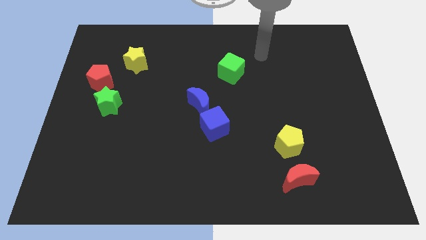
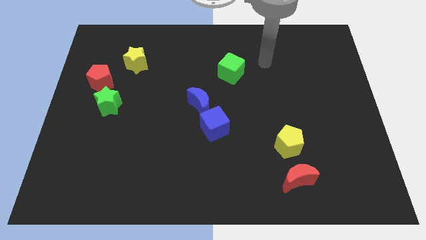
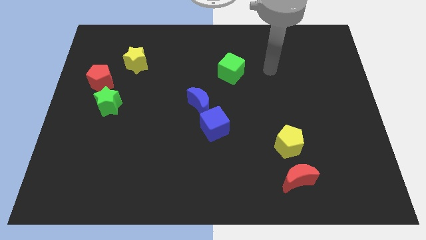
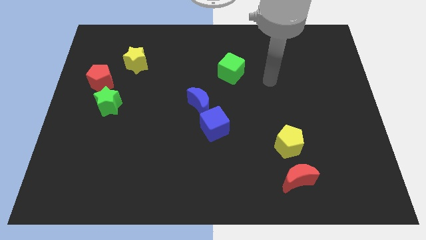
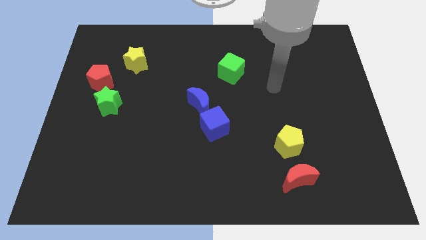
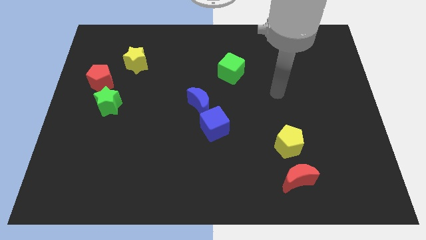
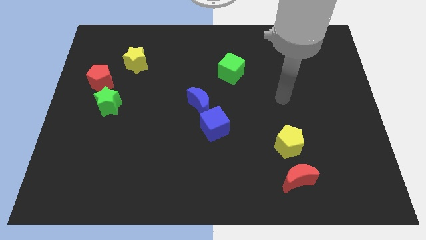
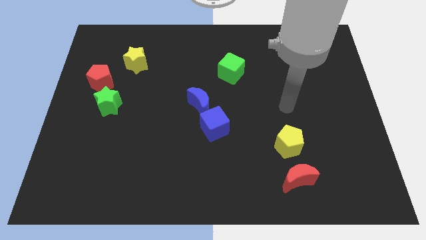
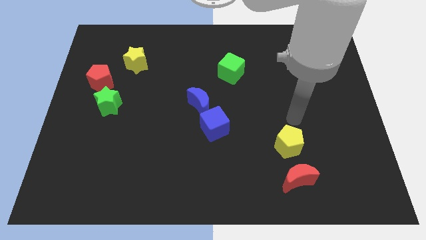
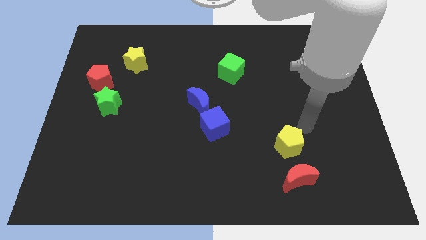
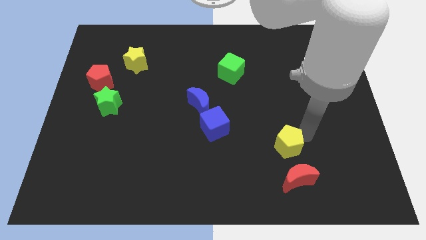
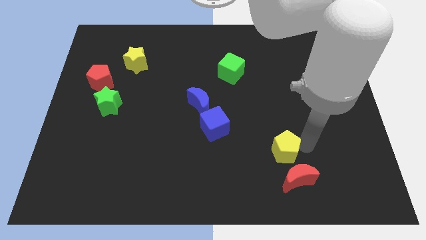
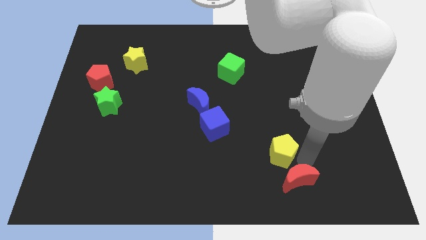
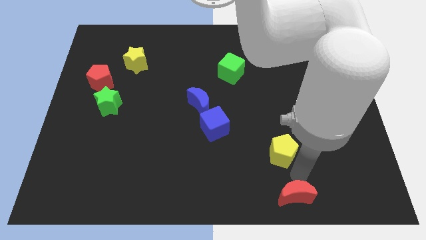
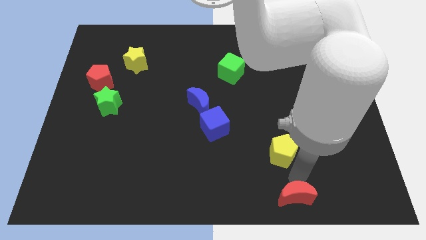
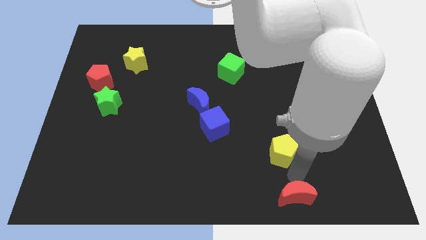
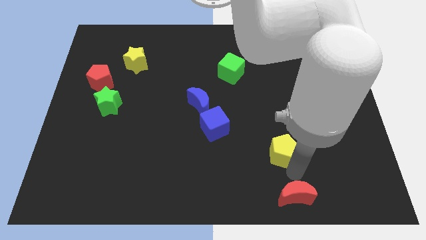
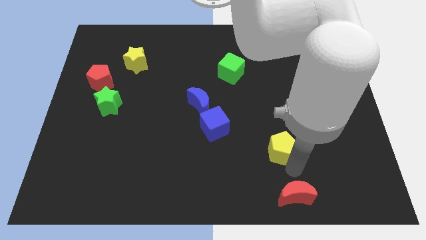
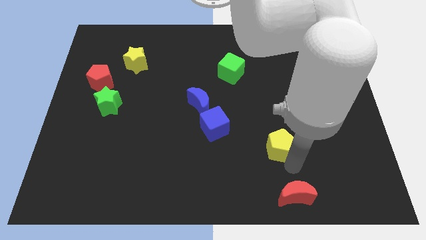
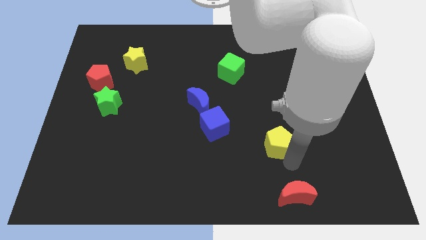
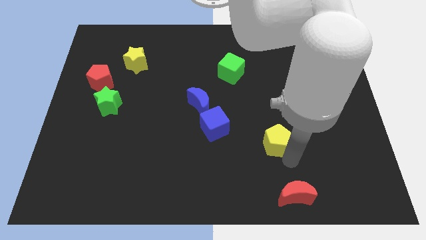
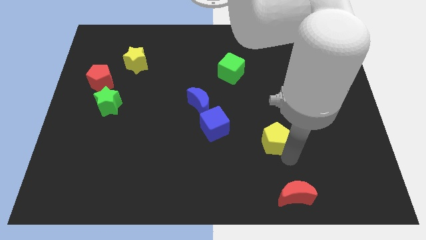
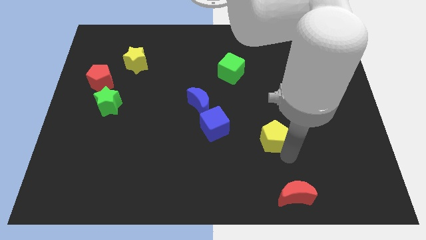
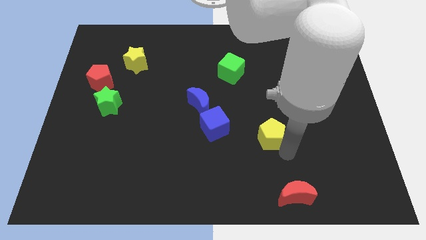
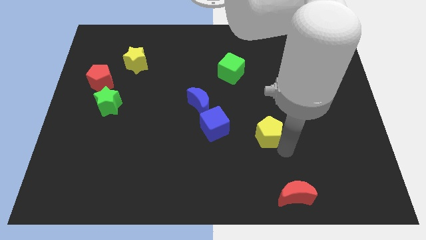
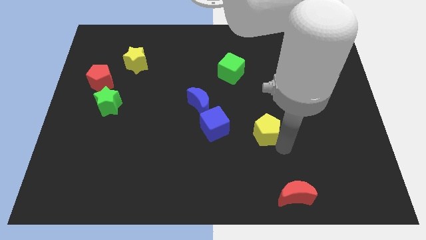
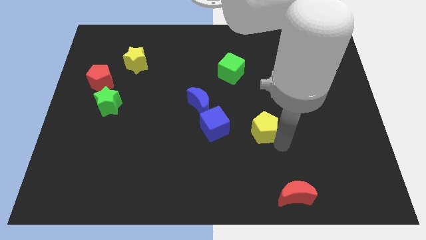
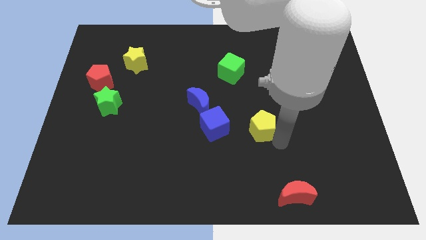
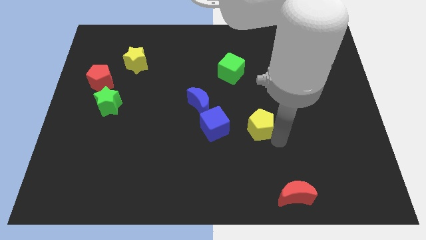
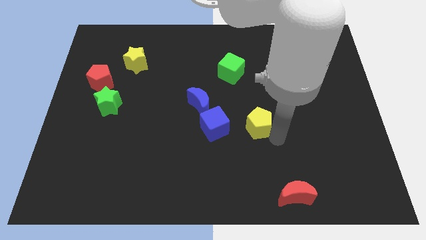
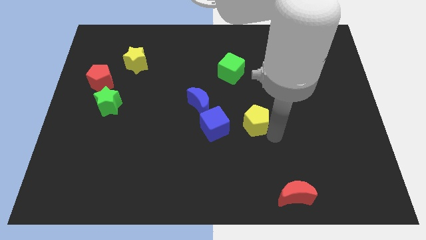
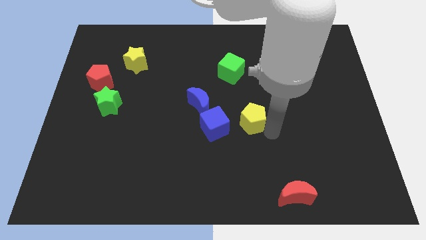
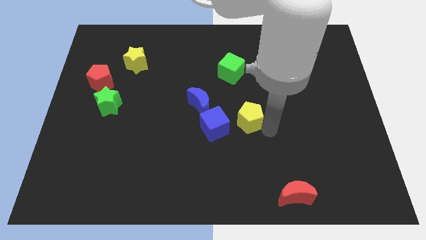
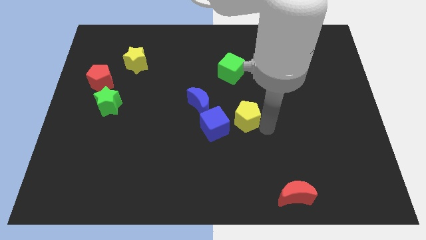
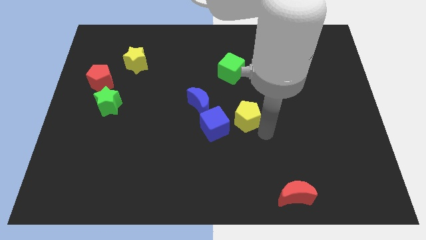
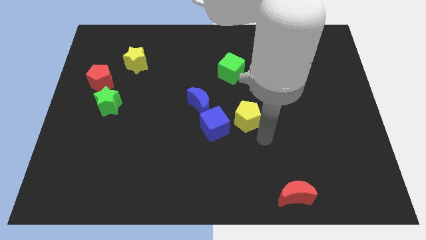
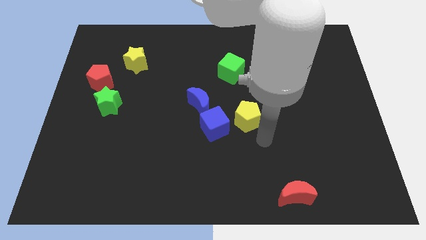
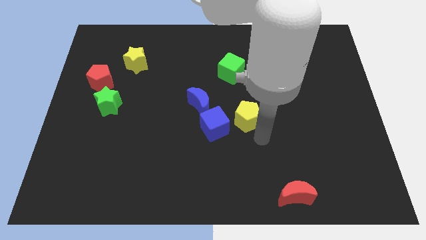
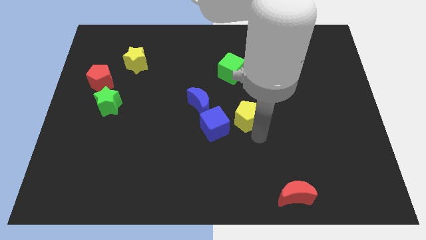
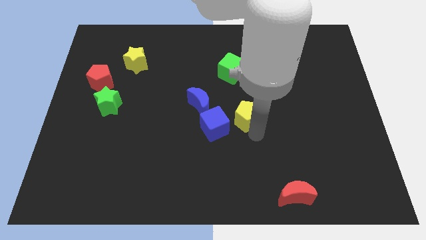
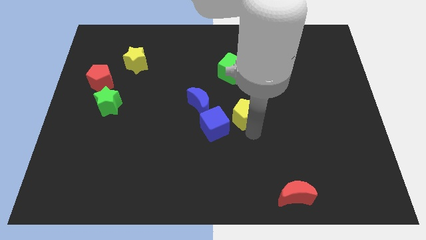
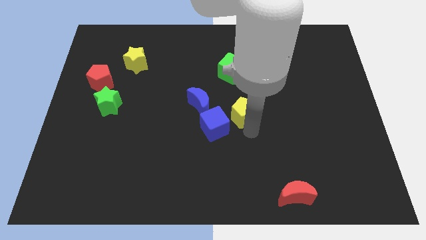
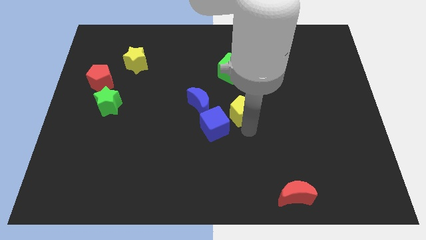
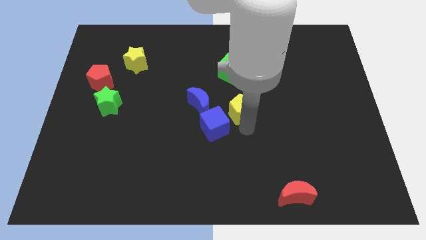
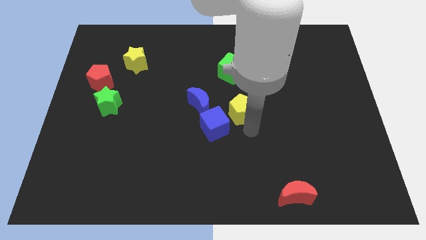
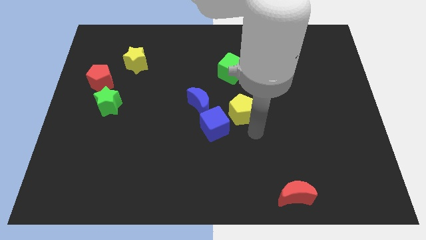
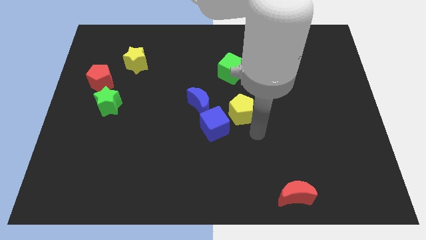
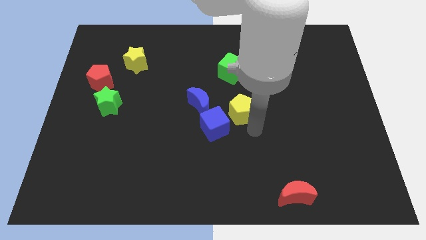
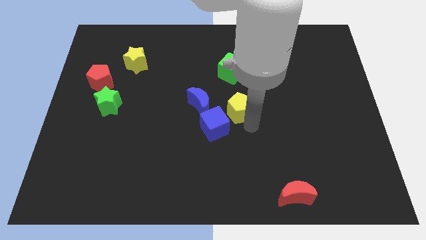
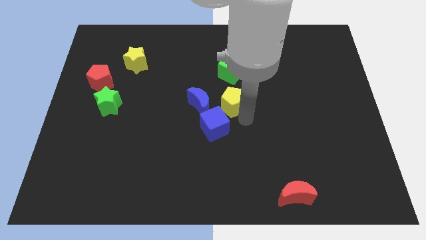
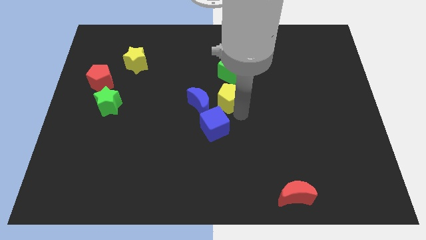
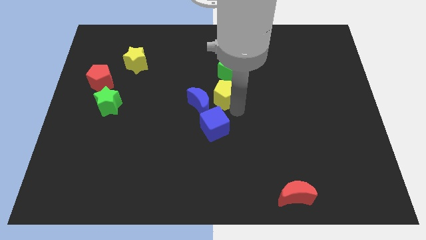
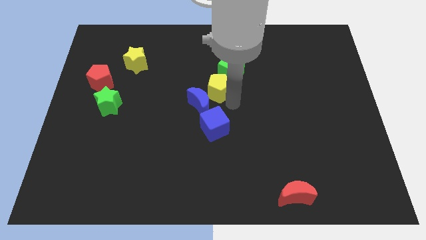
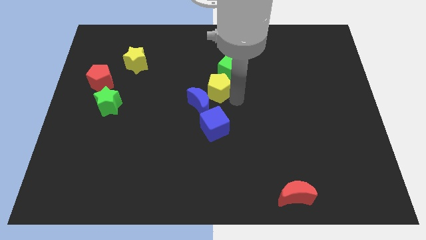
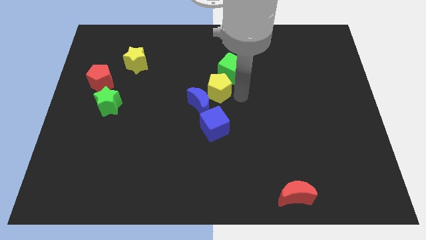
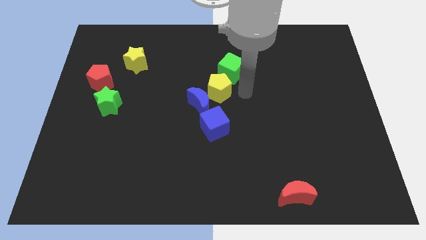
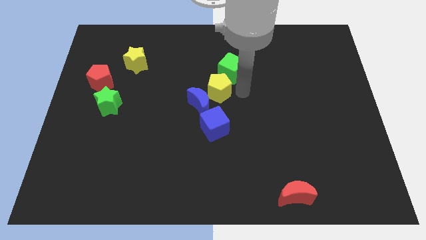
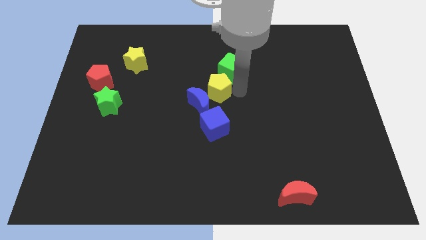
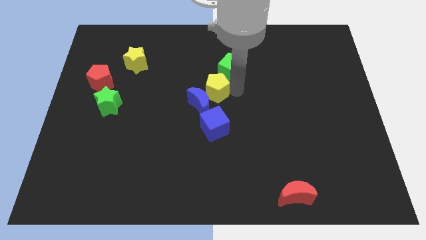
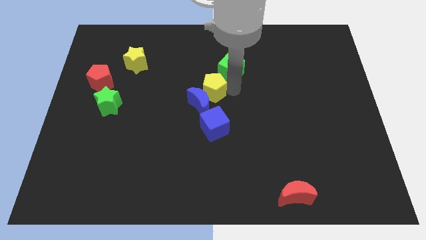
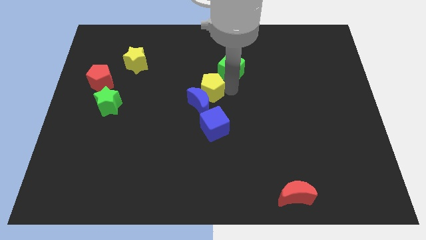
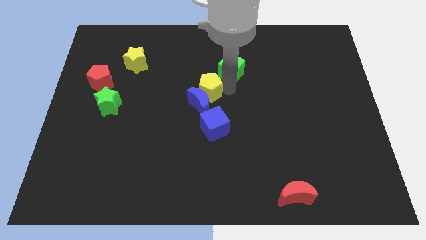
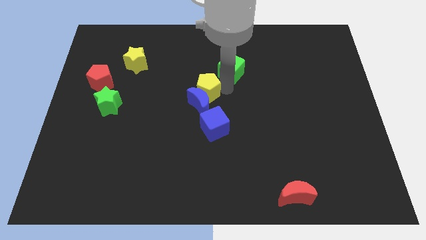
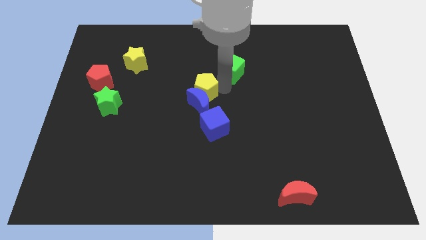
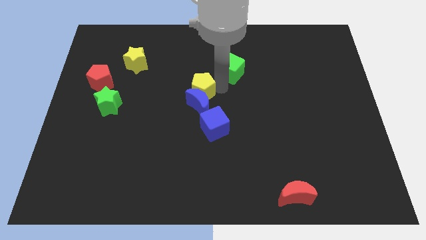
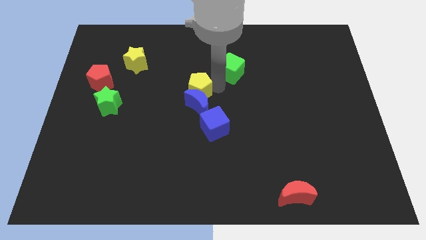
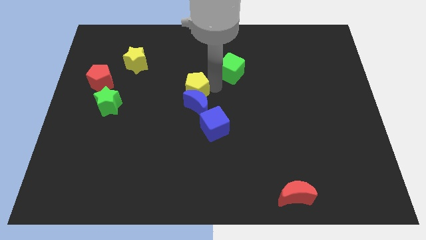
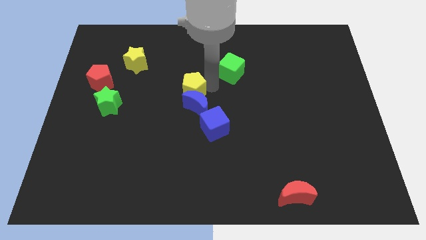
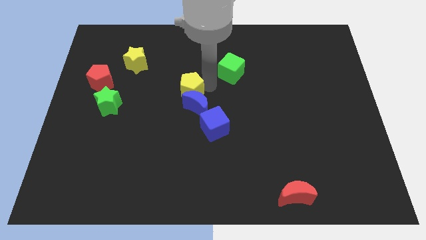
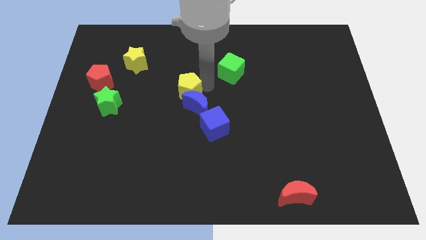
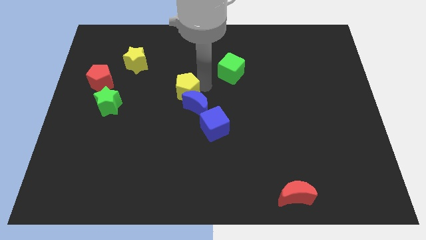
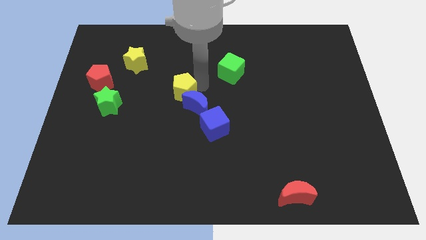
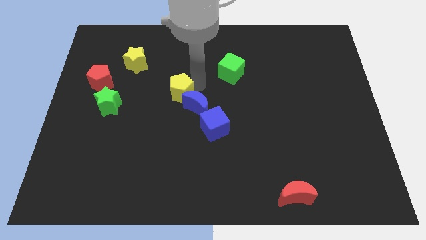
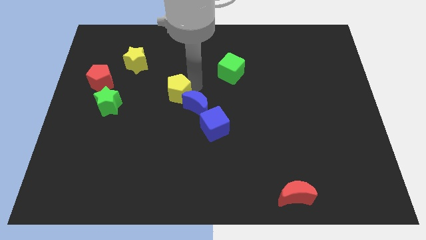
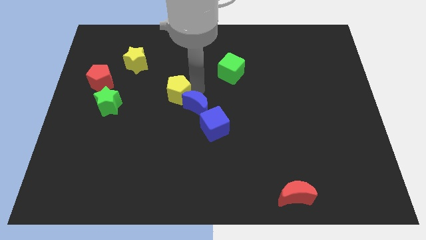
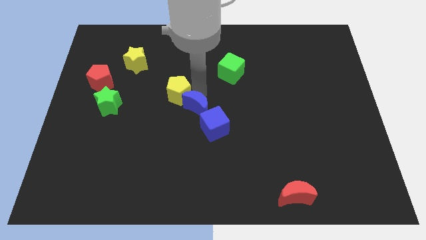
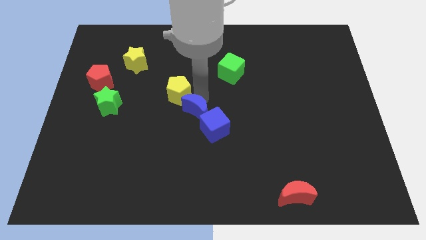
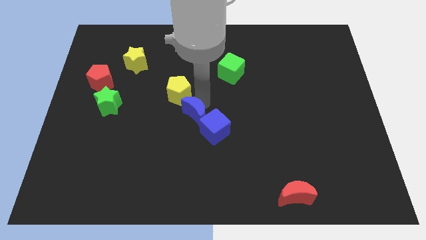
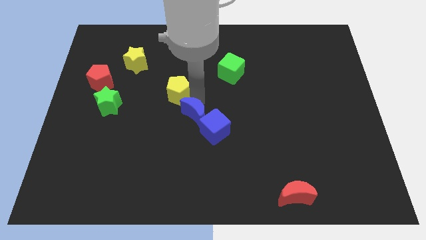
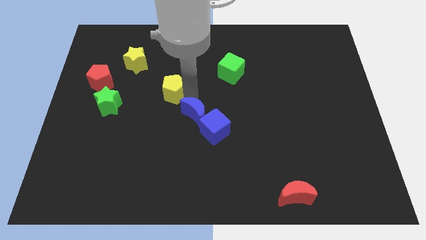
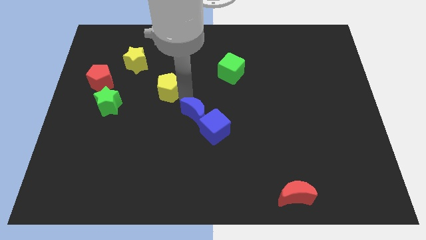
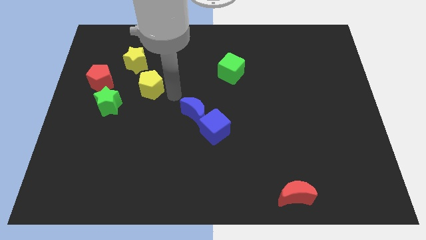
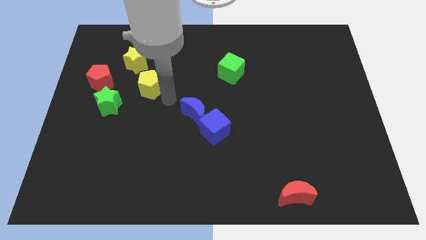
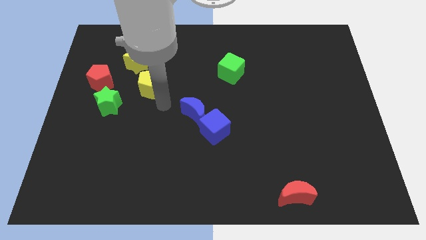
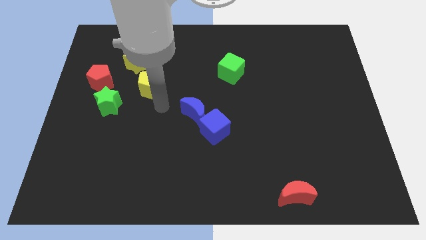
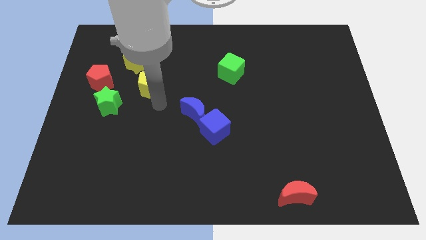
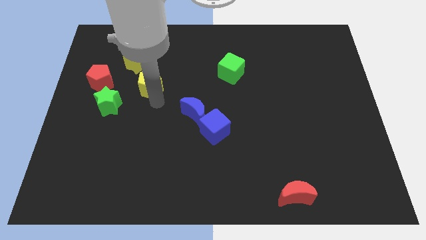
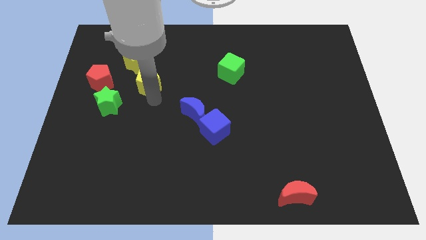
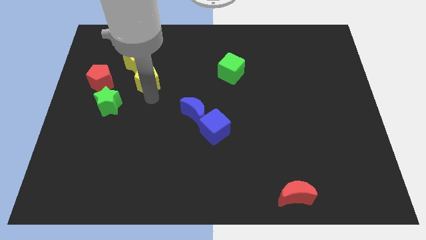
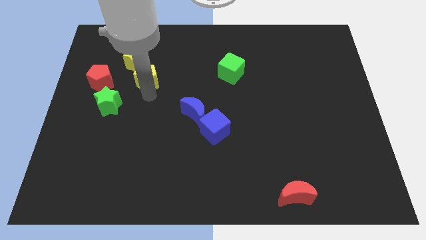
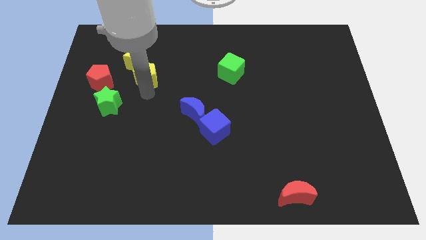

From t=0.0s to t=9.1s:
move the yellow pentagon towards the yellow star
